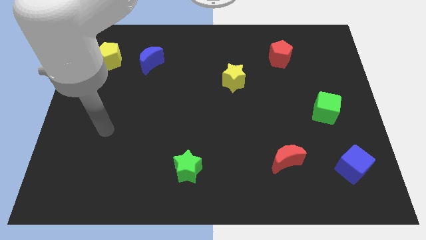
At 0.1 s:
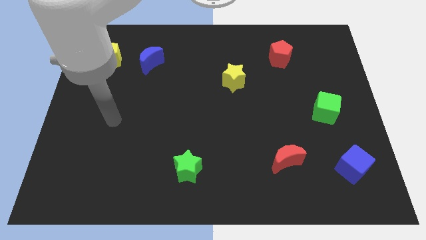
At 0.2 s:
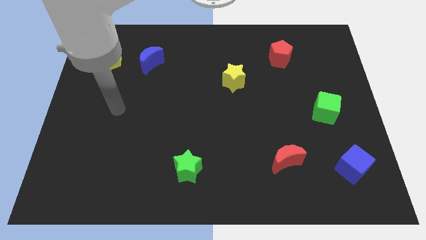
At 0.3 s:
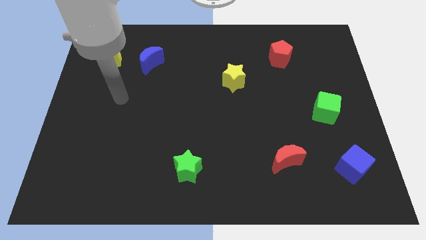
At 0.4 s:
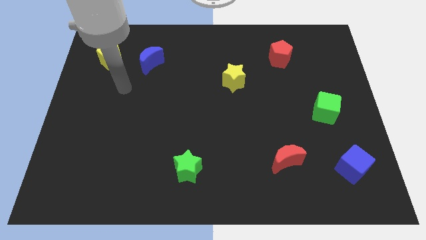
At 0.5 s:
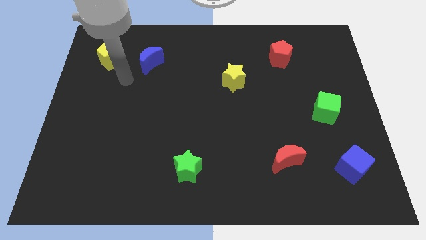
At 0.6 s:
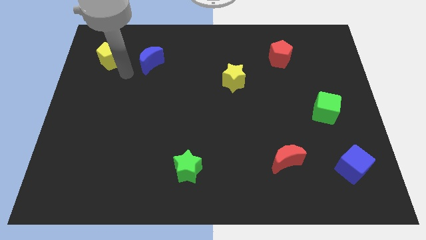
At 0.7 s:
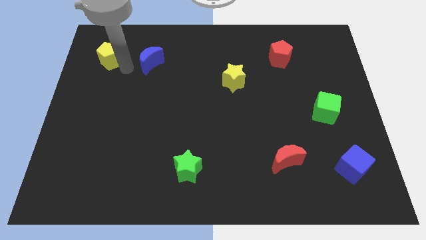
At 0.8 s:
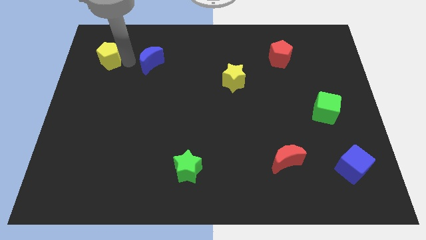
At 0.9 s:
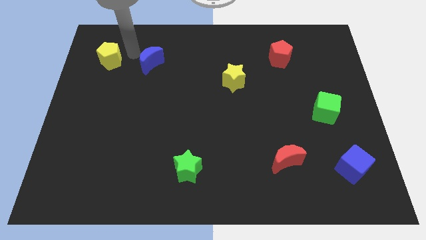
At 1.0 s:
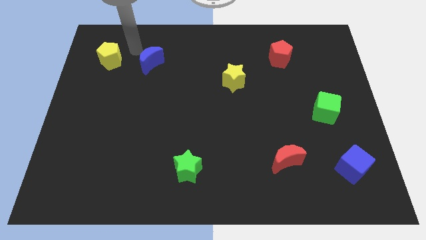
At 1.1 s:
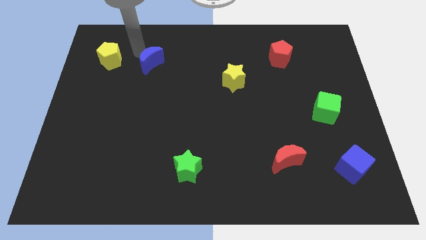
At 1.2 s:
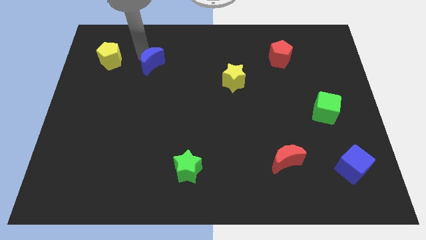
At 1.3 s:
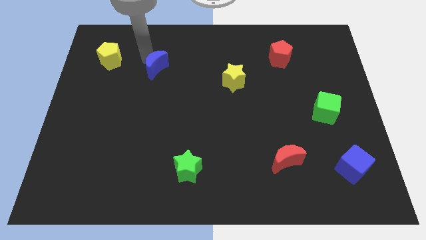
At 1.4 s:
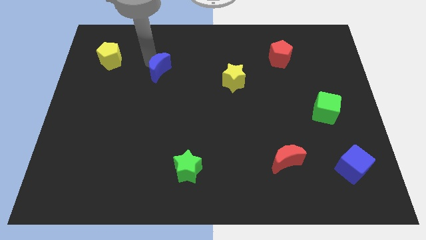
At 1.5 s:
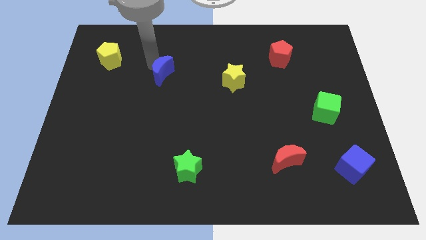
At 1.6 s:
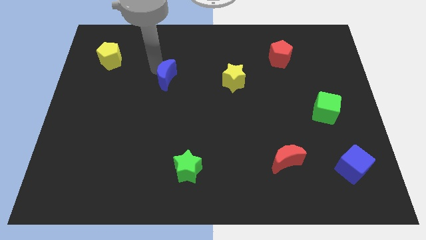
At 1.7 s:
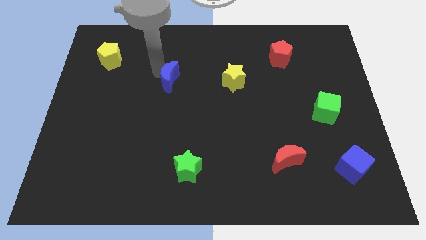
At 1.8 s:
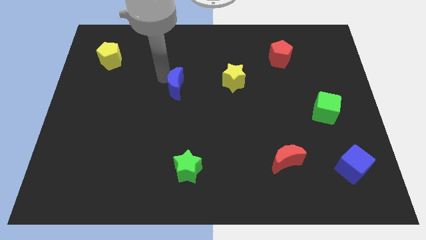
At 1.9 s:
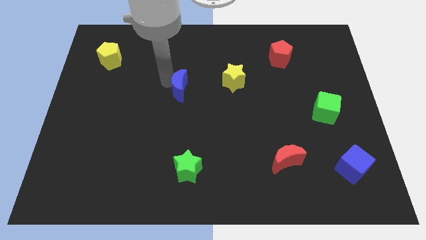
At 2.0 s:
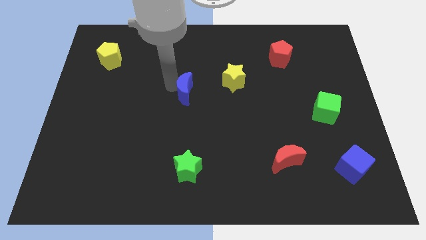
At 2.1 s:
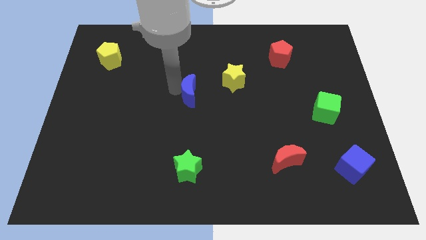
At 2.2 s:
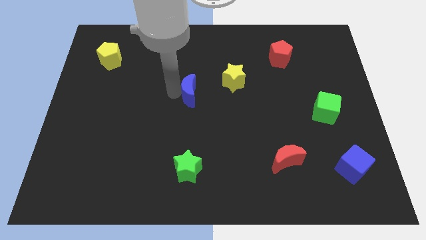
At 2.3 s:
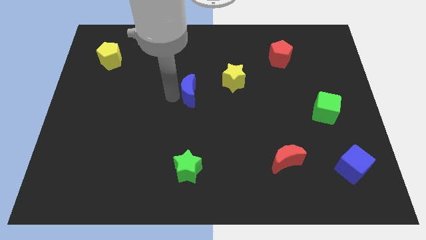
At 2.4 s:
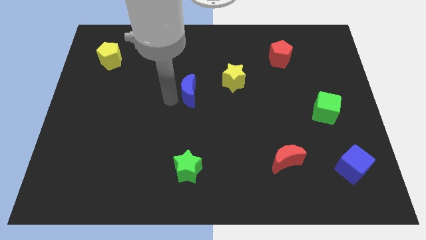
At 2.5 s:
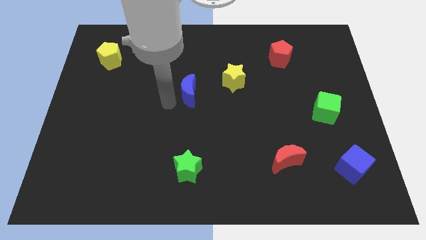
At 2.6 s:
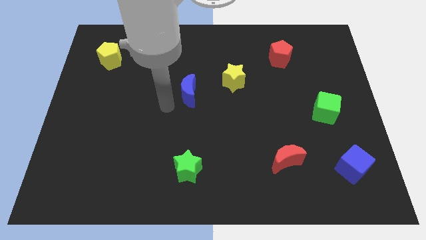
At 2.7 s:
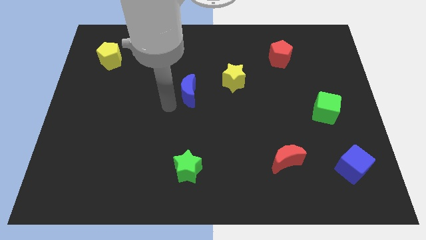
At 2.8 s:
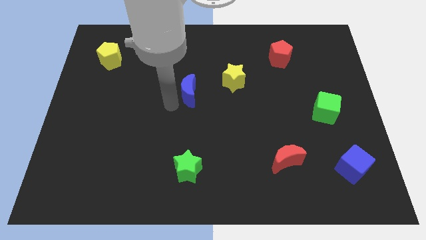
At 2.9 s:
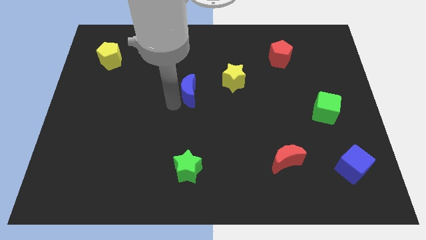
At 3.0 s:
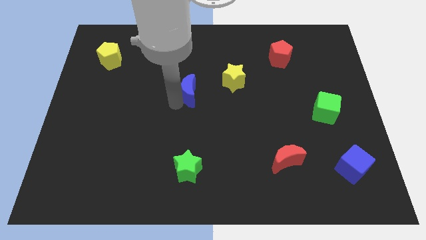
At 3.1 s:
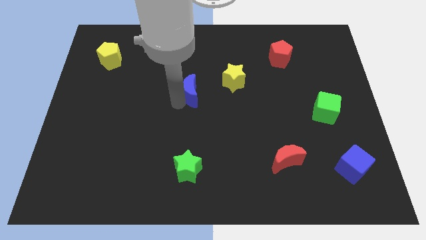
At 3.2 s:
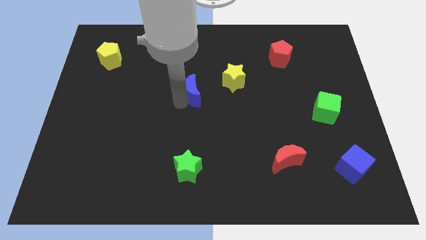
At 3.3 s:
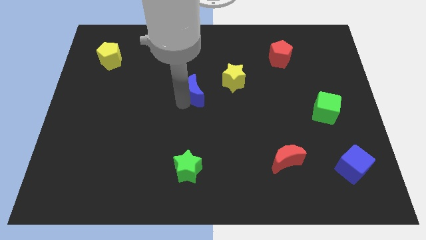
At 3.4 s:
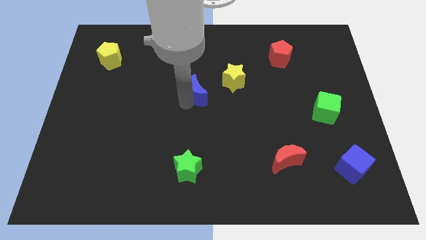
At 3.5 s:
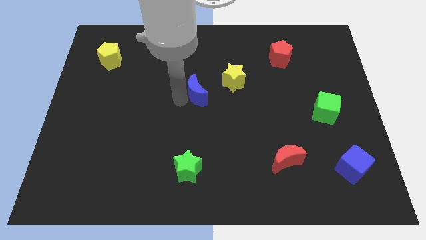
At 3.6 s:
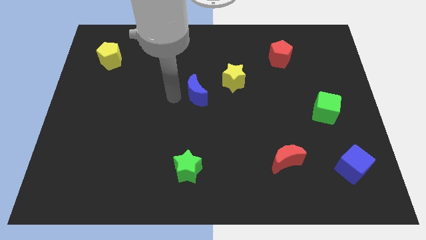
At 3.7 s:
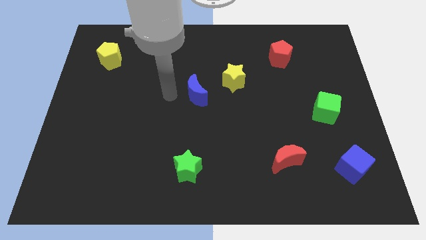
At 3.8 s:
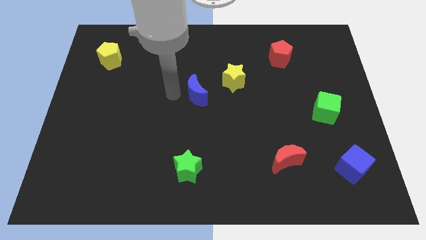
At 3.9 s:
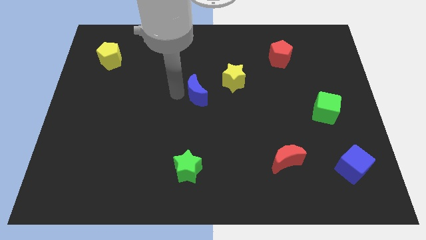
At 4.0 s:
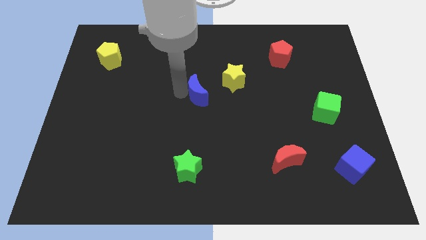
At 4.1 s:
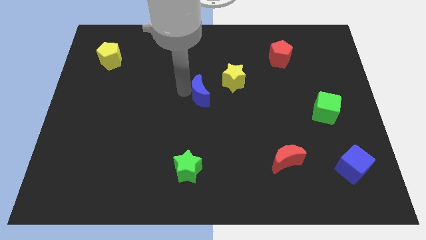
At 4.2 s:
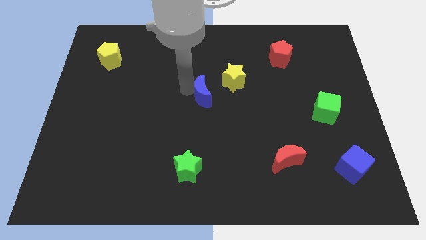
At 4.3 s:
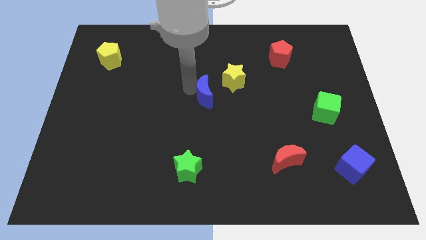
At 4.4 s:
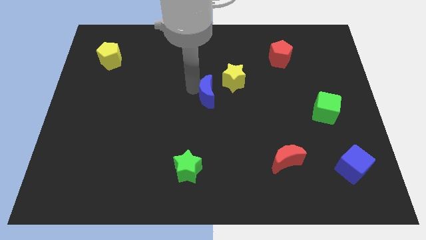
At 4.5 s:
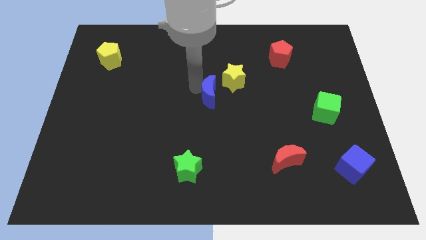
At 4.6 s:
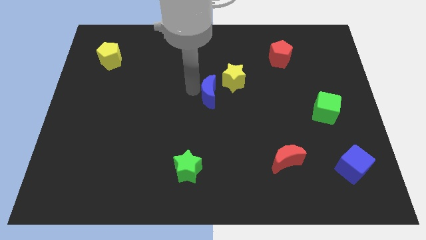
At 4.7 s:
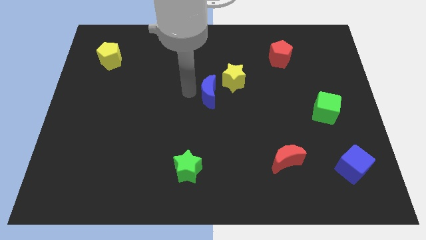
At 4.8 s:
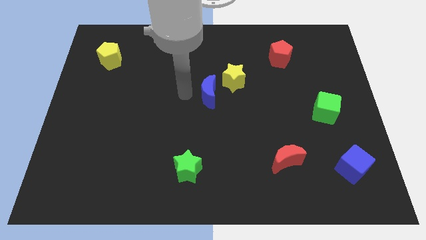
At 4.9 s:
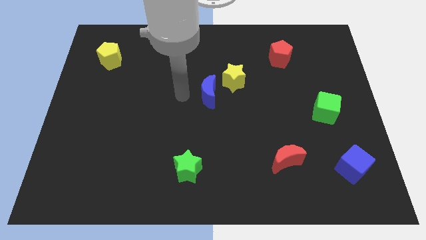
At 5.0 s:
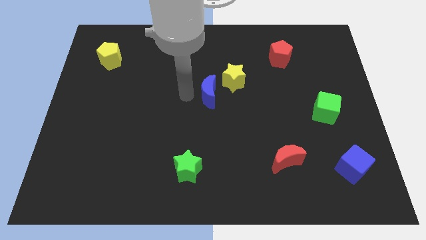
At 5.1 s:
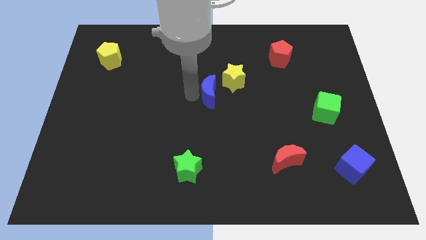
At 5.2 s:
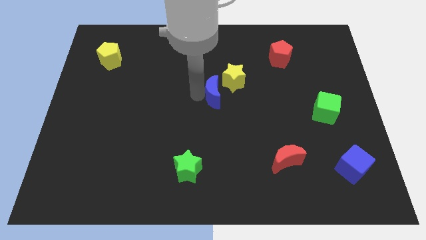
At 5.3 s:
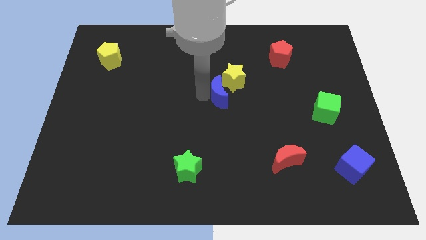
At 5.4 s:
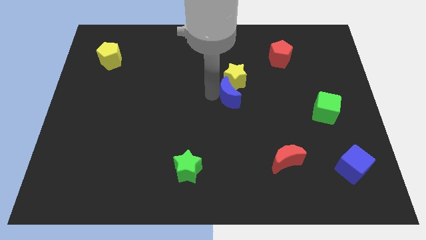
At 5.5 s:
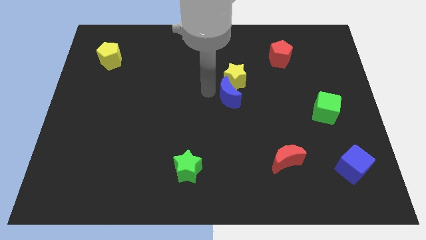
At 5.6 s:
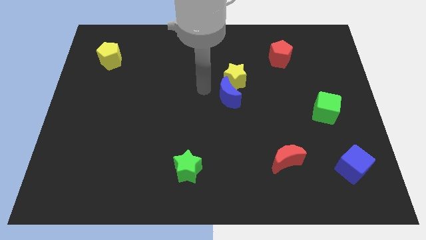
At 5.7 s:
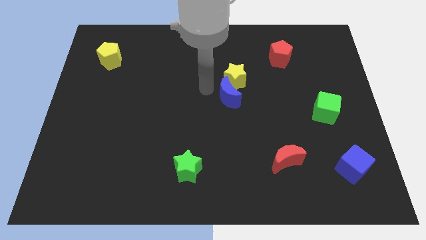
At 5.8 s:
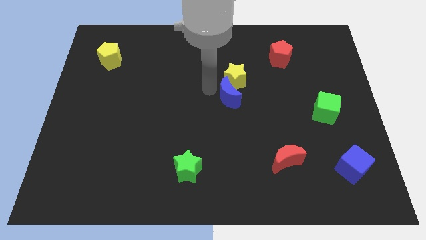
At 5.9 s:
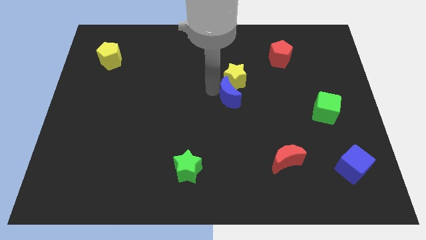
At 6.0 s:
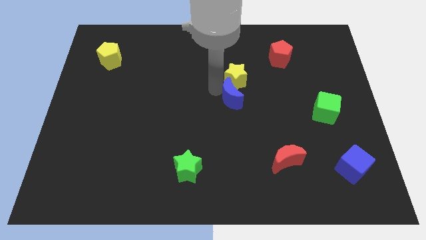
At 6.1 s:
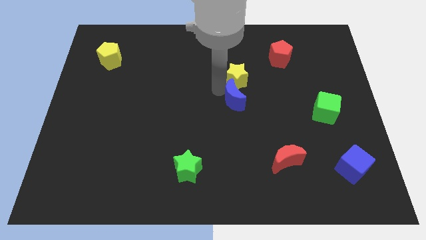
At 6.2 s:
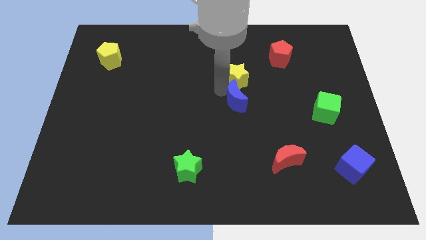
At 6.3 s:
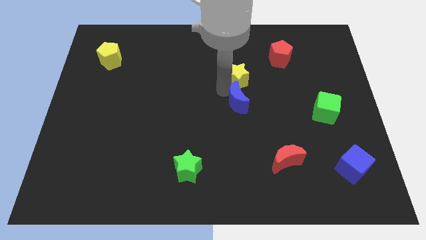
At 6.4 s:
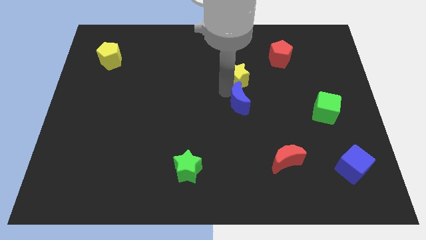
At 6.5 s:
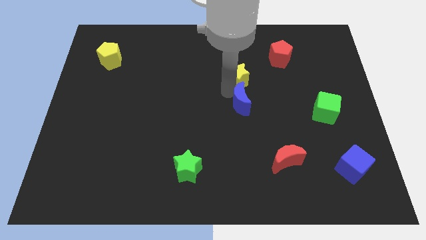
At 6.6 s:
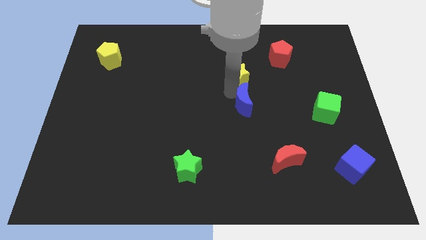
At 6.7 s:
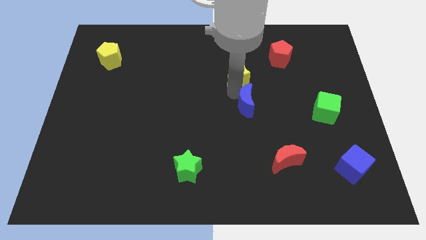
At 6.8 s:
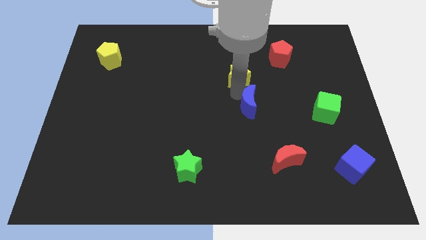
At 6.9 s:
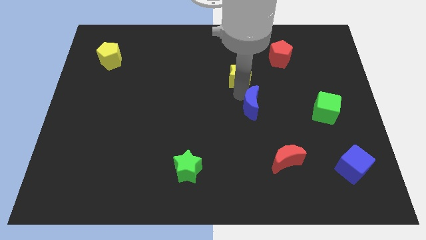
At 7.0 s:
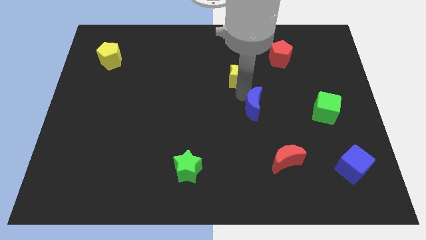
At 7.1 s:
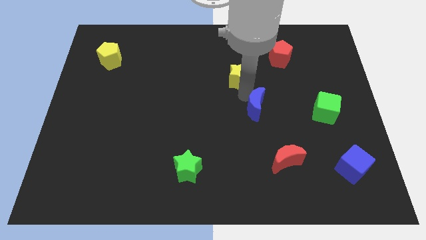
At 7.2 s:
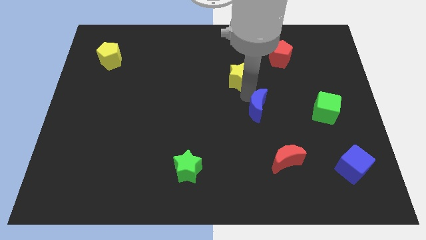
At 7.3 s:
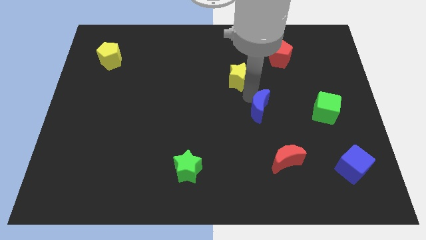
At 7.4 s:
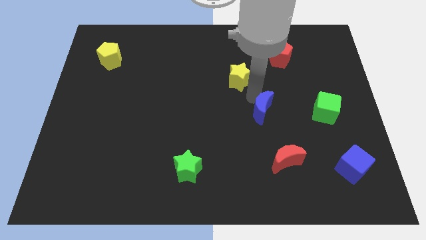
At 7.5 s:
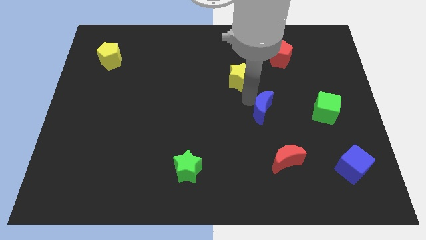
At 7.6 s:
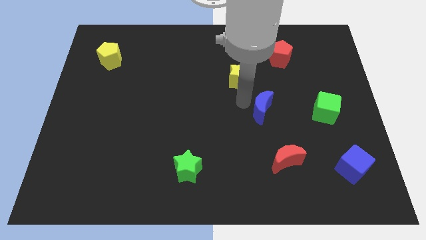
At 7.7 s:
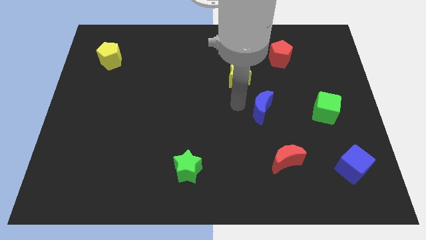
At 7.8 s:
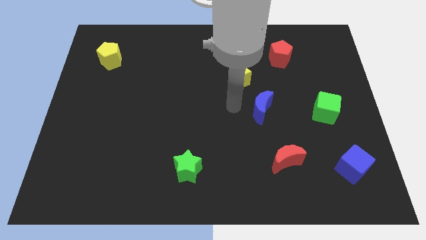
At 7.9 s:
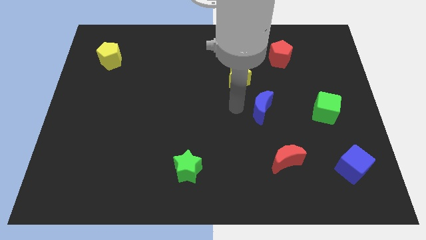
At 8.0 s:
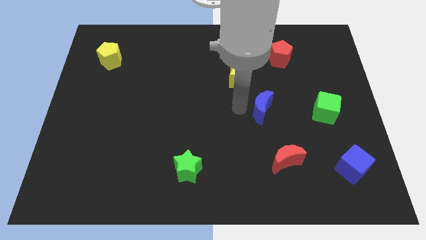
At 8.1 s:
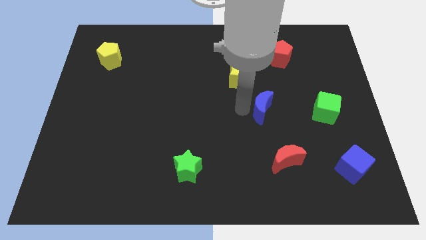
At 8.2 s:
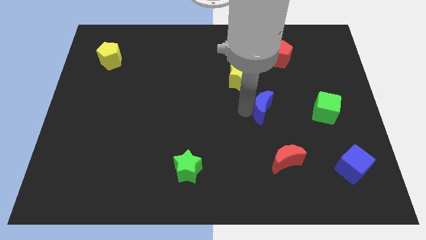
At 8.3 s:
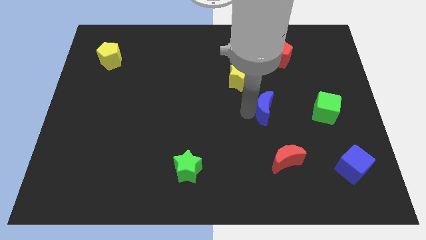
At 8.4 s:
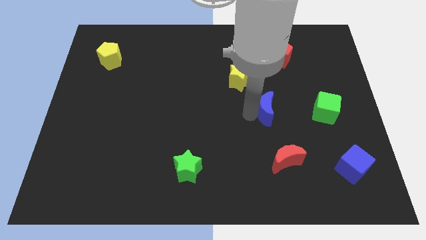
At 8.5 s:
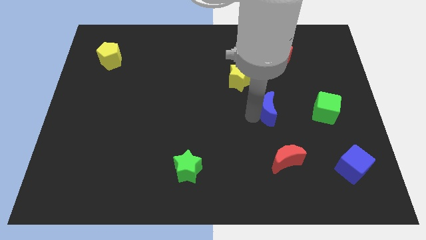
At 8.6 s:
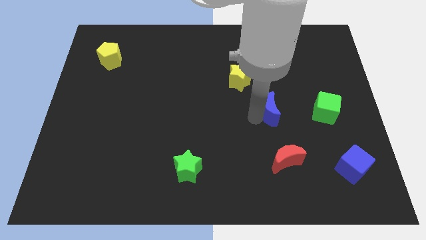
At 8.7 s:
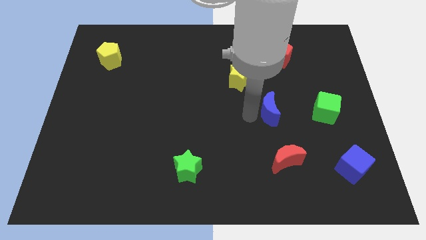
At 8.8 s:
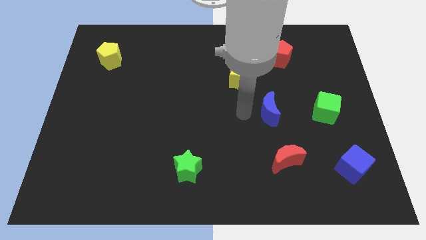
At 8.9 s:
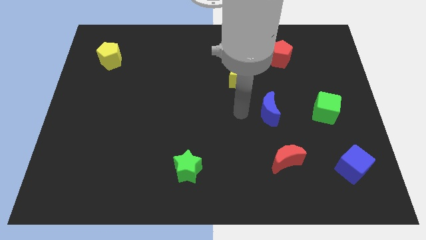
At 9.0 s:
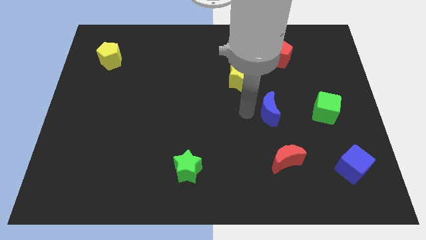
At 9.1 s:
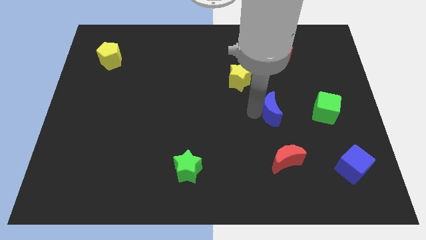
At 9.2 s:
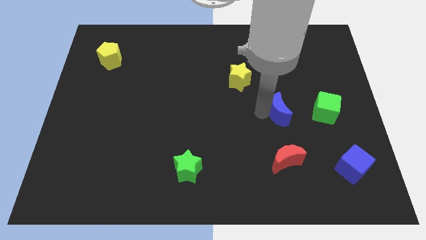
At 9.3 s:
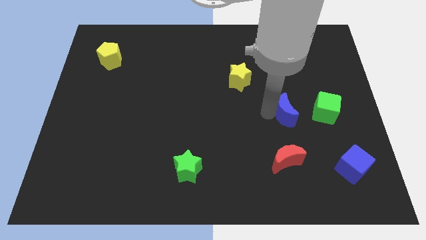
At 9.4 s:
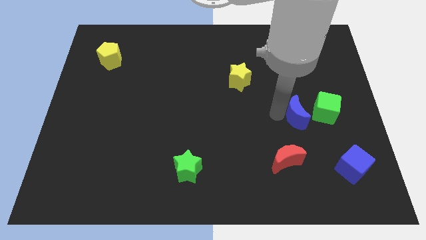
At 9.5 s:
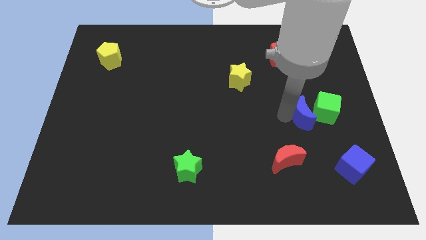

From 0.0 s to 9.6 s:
slide the blue moon towards the green cube
